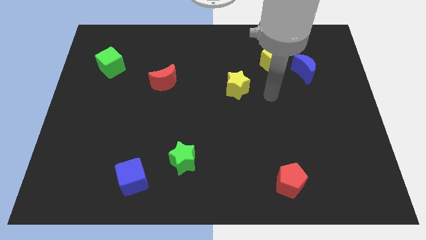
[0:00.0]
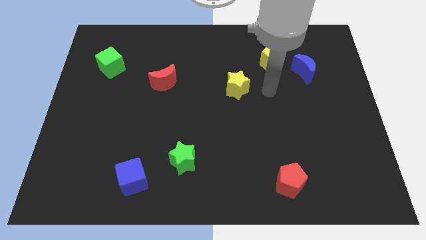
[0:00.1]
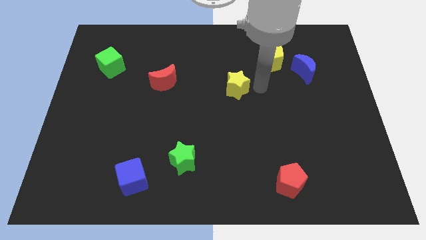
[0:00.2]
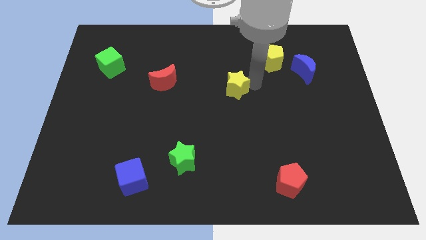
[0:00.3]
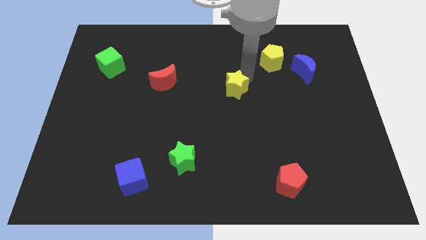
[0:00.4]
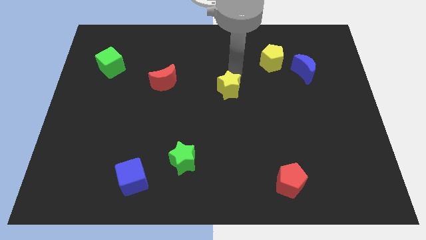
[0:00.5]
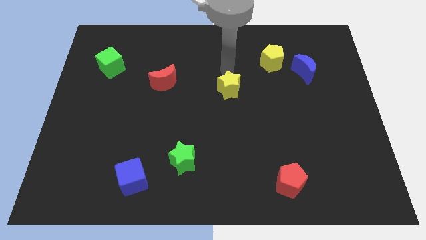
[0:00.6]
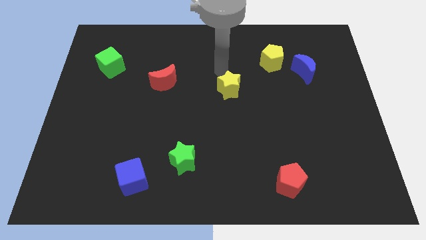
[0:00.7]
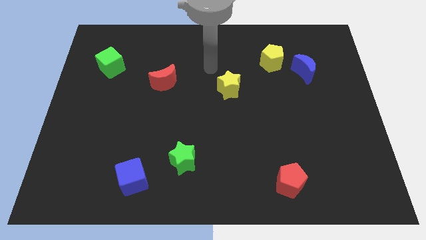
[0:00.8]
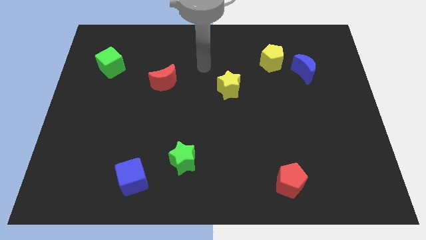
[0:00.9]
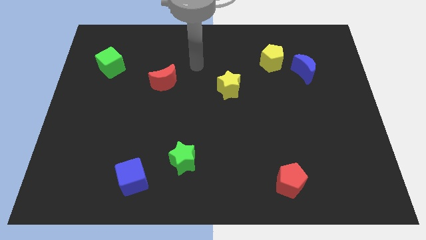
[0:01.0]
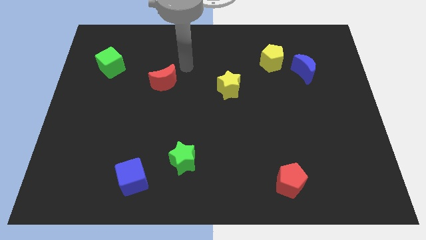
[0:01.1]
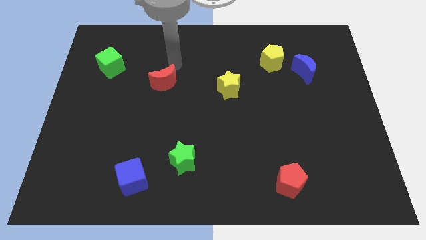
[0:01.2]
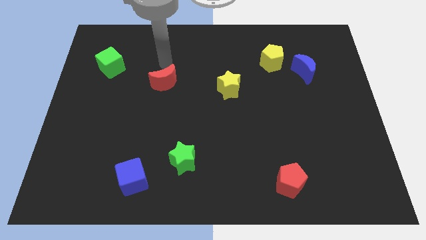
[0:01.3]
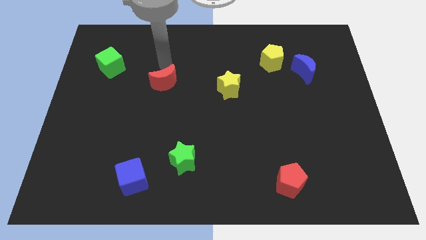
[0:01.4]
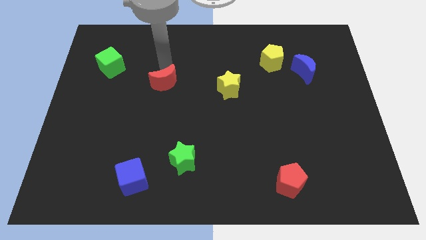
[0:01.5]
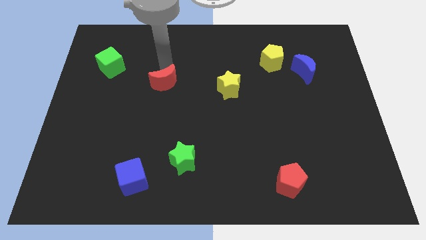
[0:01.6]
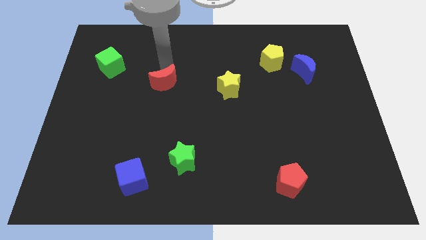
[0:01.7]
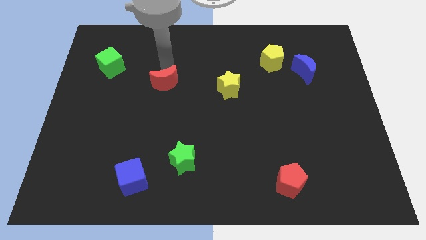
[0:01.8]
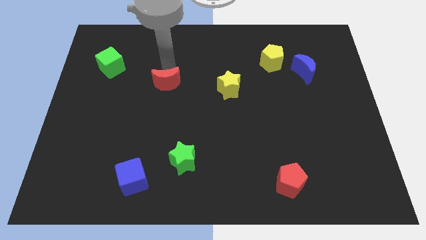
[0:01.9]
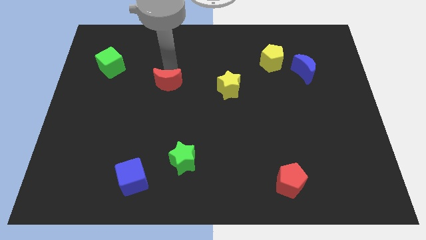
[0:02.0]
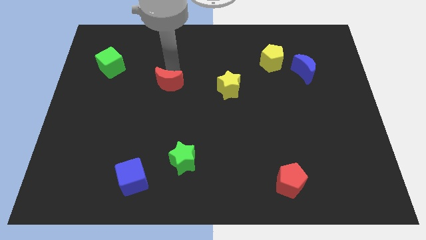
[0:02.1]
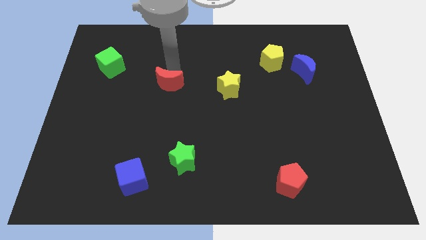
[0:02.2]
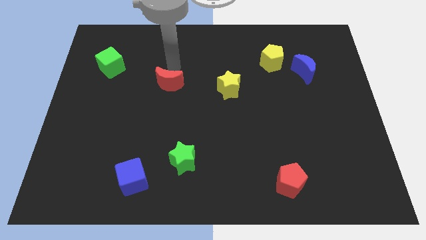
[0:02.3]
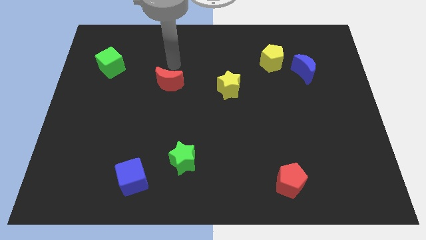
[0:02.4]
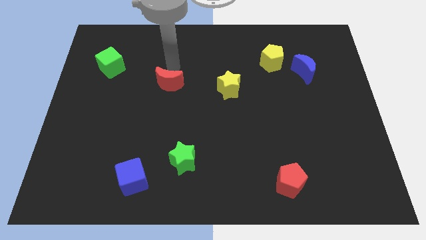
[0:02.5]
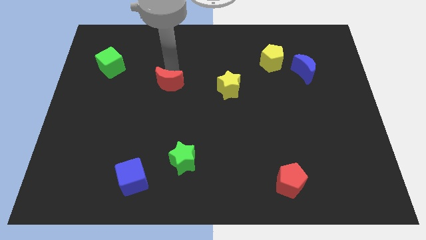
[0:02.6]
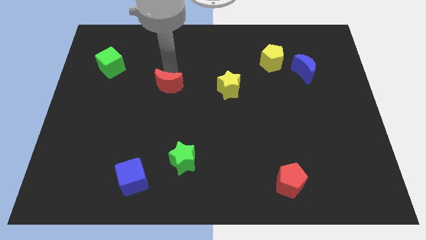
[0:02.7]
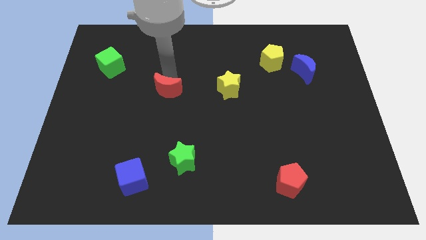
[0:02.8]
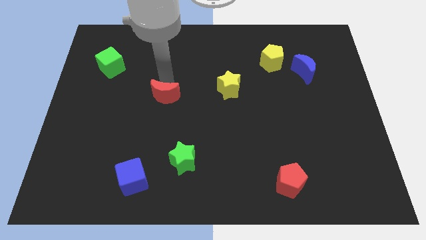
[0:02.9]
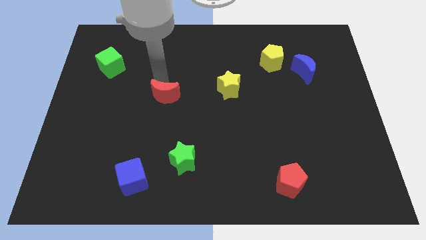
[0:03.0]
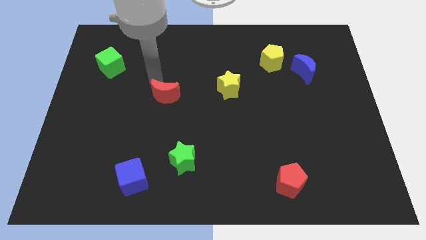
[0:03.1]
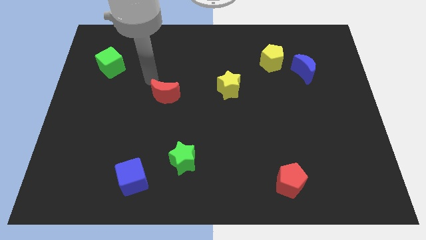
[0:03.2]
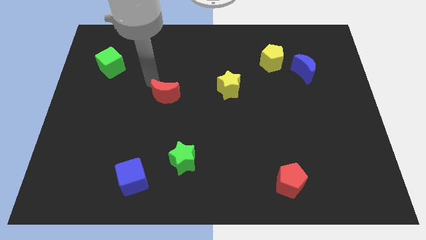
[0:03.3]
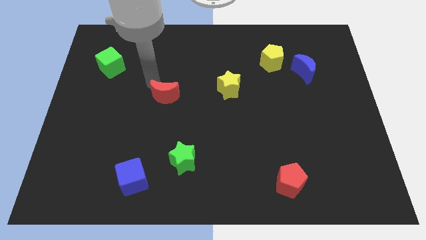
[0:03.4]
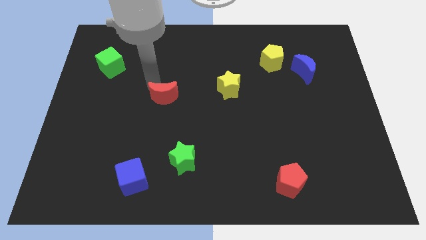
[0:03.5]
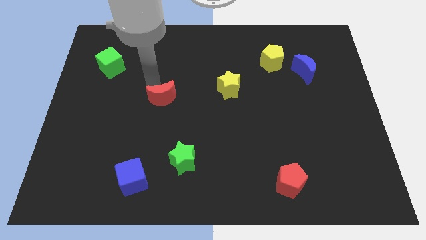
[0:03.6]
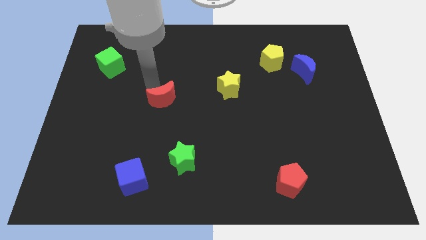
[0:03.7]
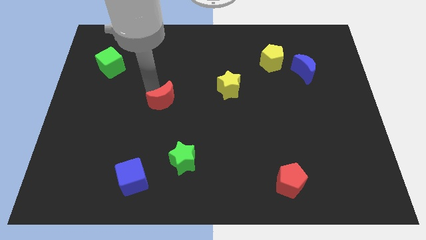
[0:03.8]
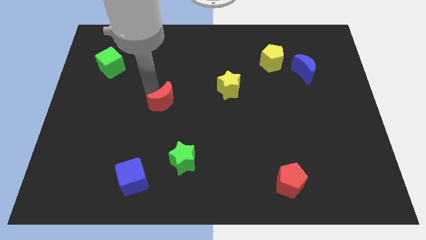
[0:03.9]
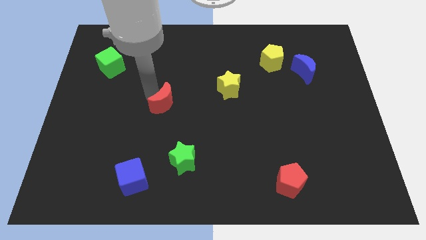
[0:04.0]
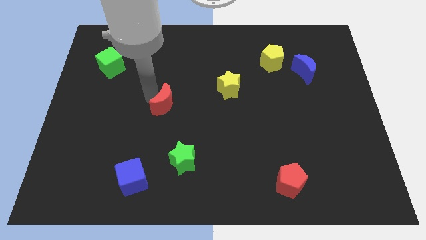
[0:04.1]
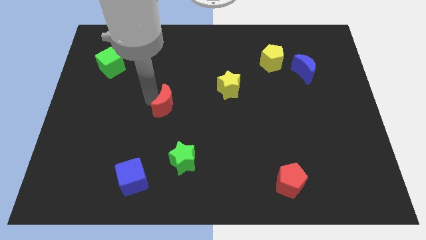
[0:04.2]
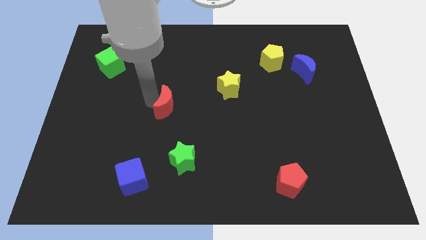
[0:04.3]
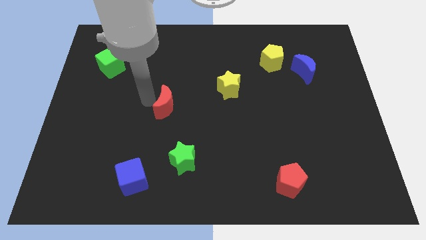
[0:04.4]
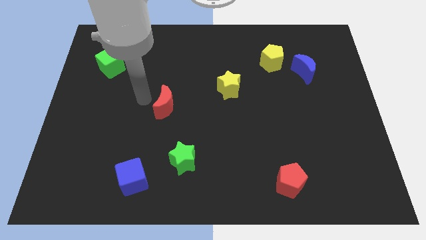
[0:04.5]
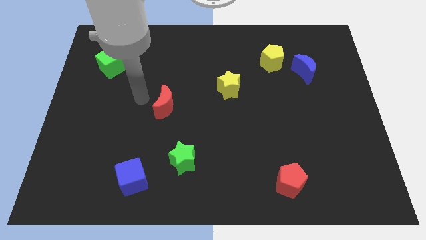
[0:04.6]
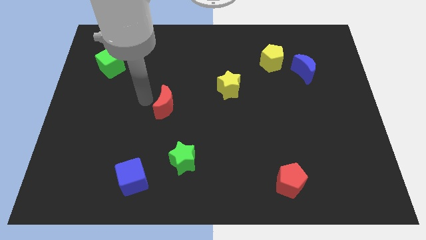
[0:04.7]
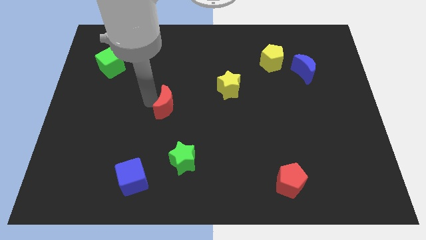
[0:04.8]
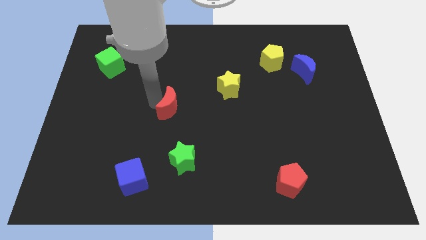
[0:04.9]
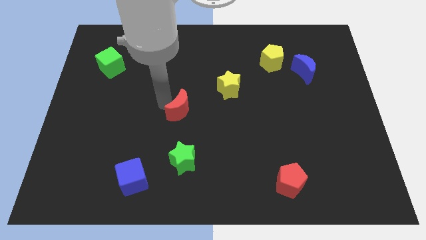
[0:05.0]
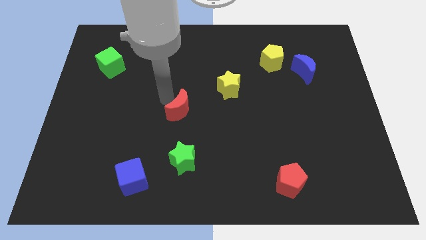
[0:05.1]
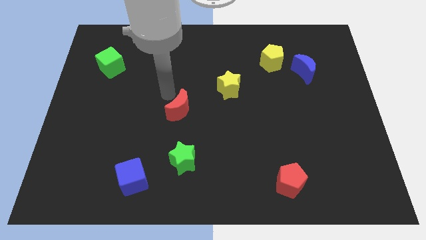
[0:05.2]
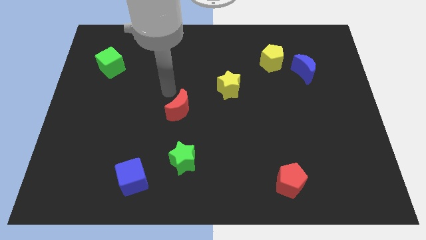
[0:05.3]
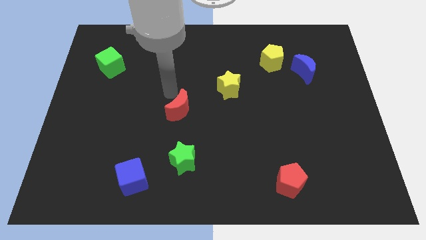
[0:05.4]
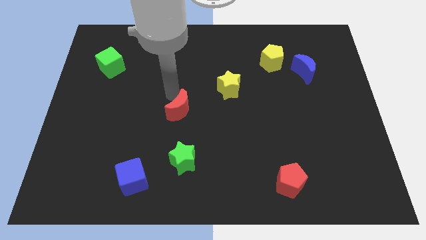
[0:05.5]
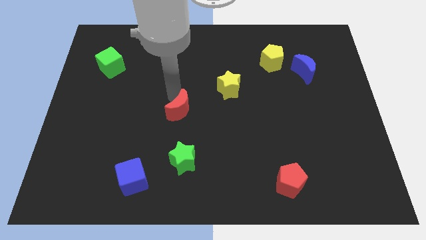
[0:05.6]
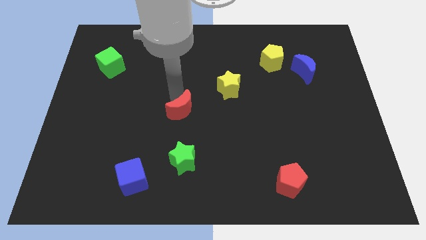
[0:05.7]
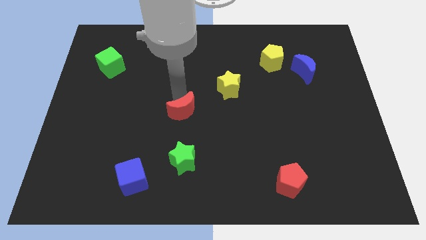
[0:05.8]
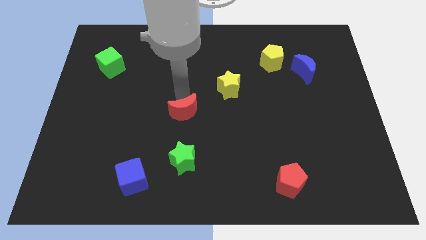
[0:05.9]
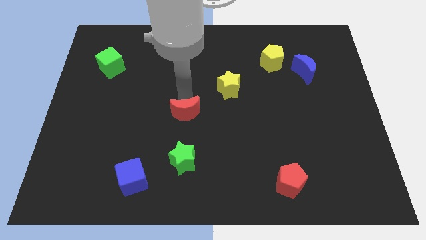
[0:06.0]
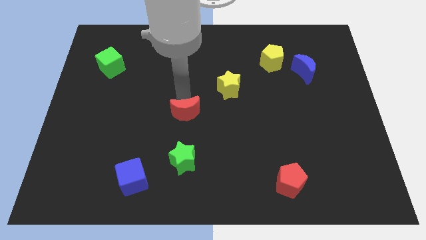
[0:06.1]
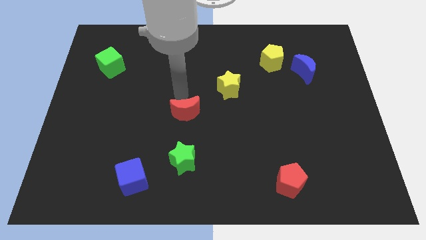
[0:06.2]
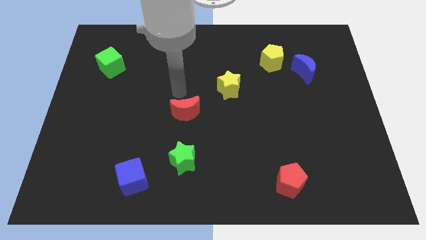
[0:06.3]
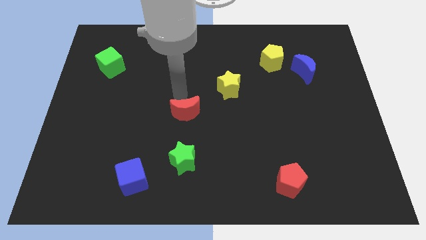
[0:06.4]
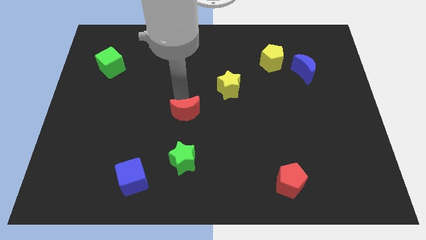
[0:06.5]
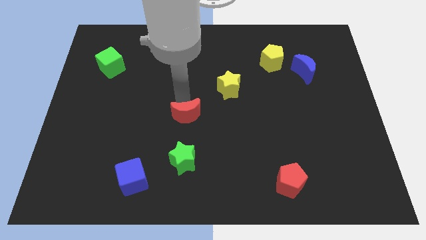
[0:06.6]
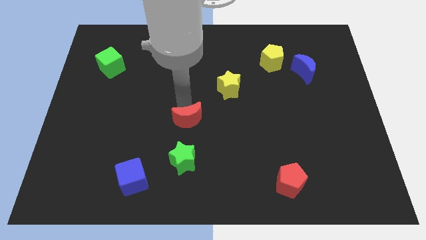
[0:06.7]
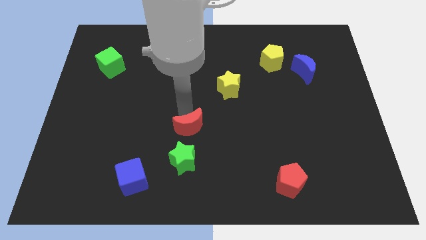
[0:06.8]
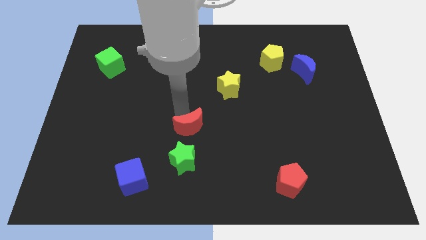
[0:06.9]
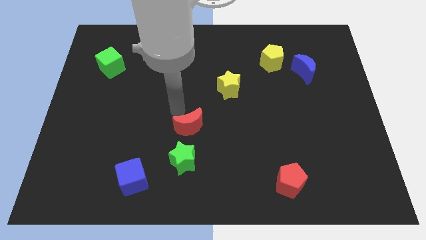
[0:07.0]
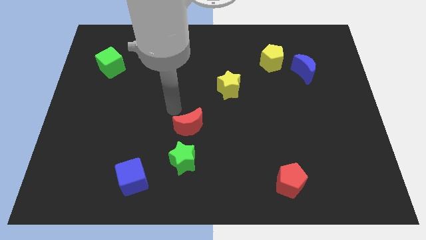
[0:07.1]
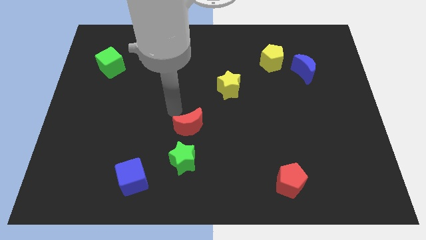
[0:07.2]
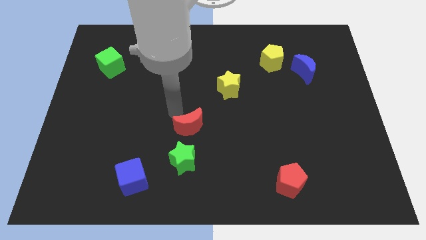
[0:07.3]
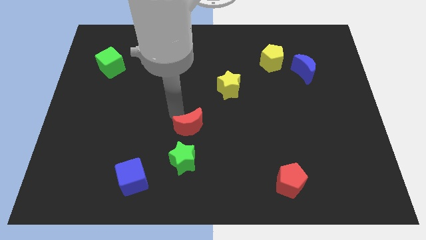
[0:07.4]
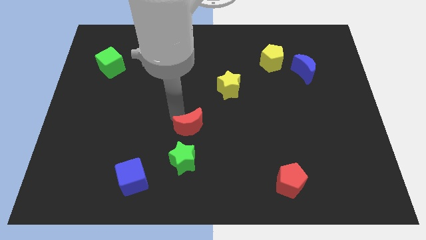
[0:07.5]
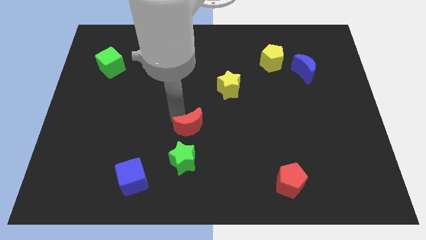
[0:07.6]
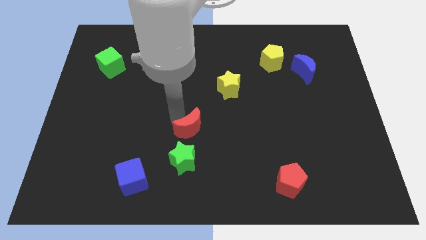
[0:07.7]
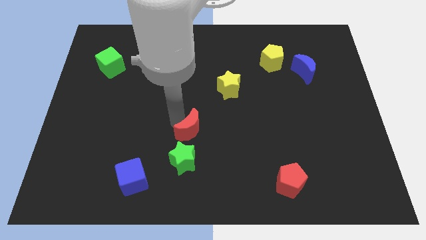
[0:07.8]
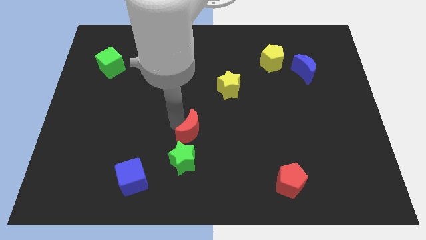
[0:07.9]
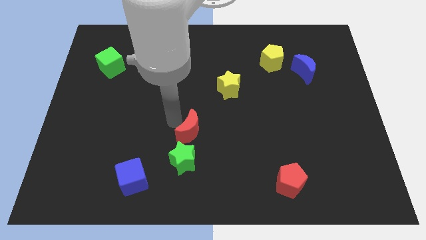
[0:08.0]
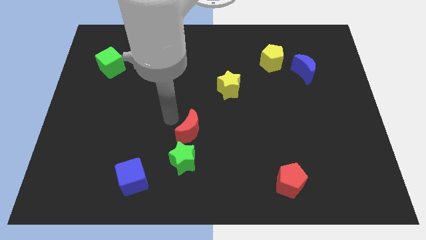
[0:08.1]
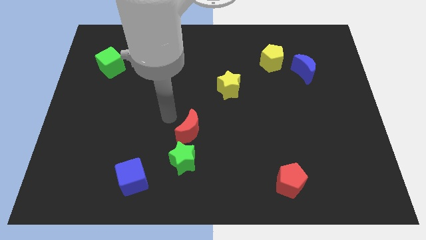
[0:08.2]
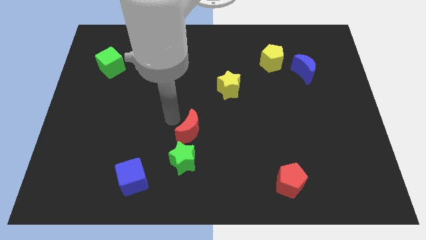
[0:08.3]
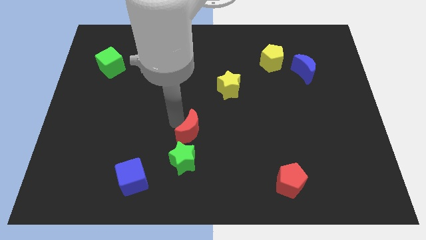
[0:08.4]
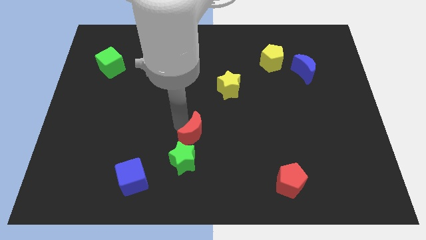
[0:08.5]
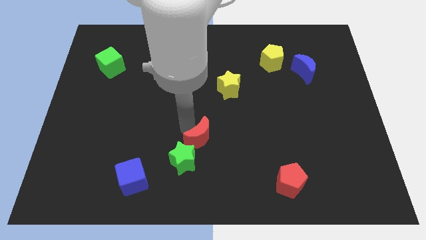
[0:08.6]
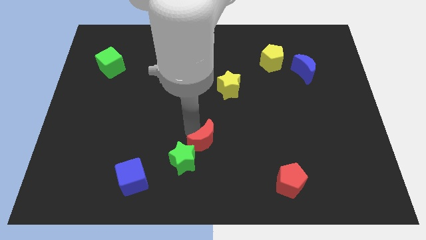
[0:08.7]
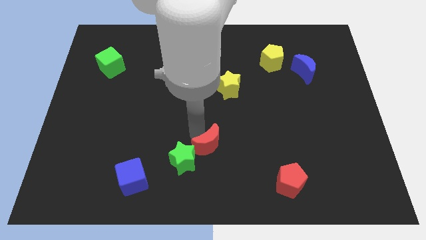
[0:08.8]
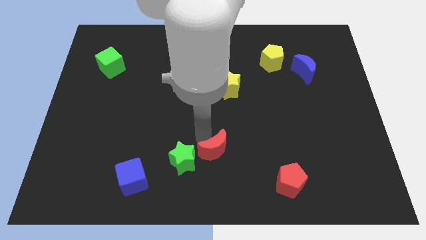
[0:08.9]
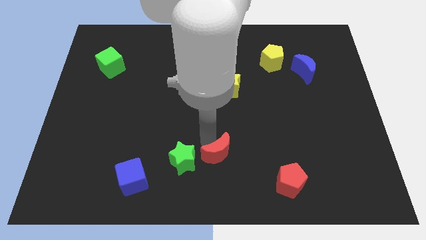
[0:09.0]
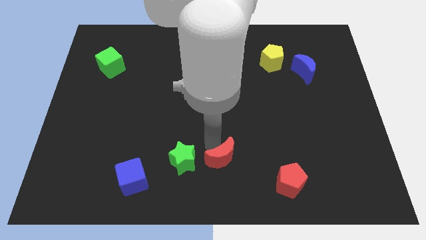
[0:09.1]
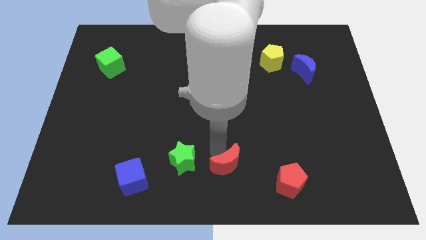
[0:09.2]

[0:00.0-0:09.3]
move the red moon left of the red pentagon
